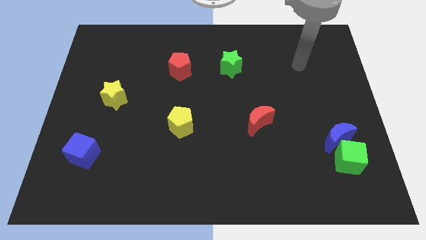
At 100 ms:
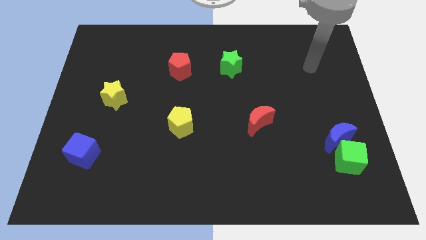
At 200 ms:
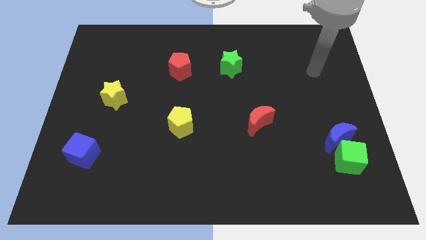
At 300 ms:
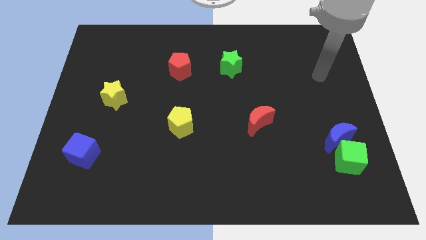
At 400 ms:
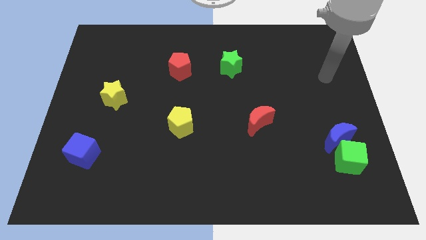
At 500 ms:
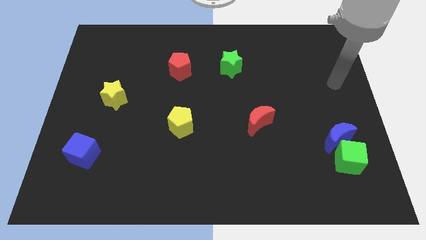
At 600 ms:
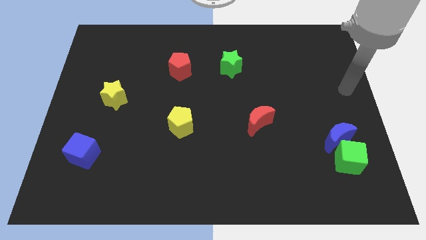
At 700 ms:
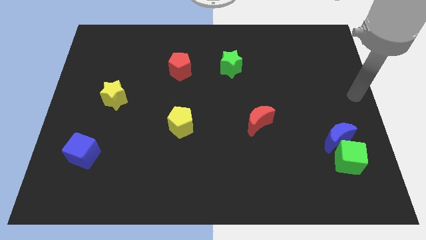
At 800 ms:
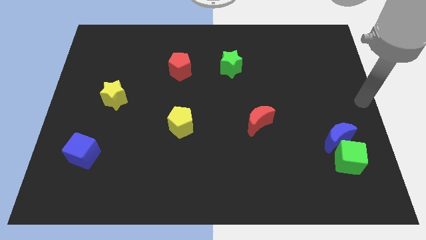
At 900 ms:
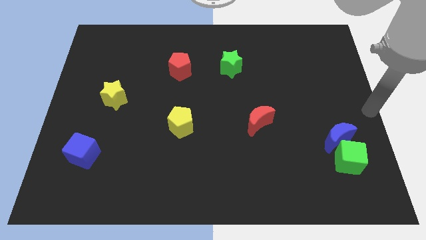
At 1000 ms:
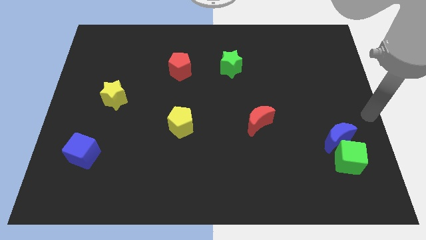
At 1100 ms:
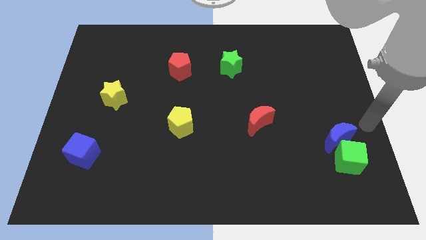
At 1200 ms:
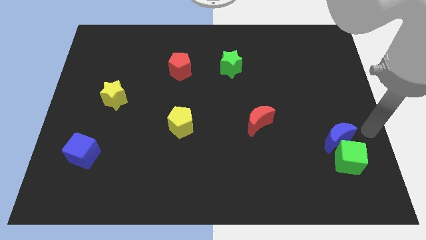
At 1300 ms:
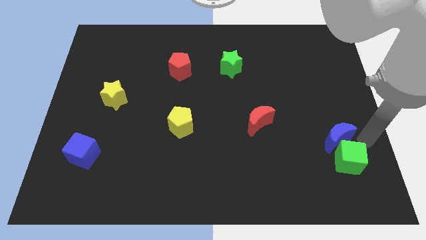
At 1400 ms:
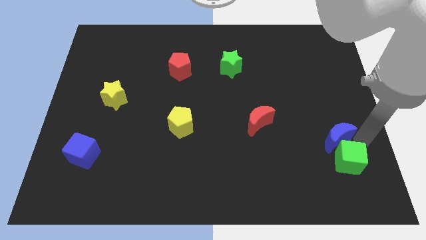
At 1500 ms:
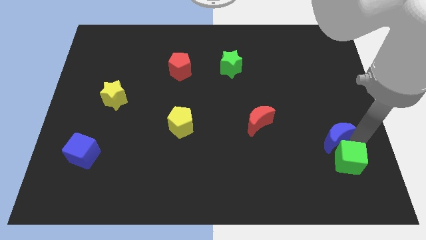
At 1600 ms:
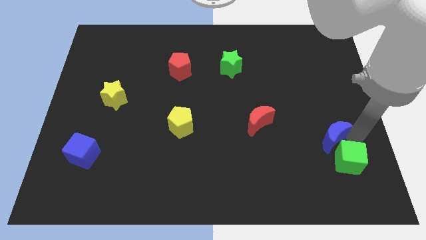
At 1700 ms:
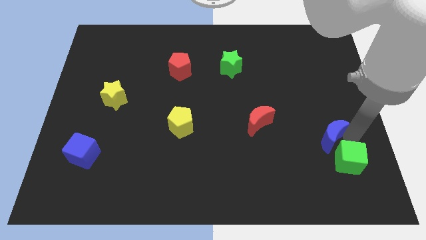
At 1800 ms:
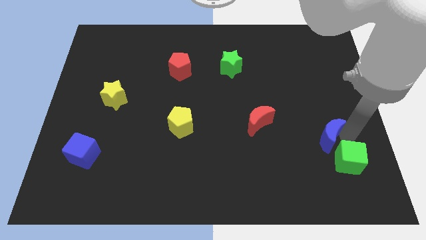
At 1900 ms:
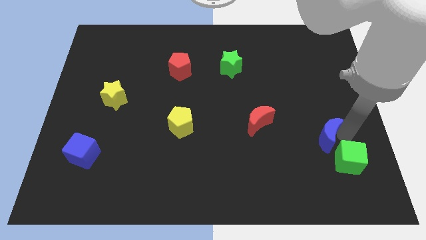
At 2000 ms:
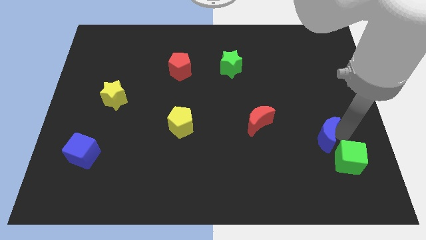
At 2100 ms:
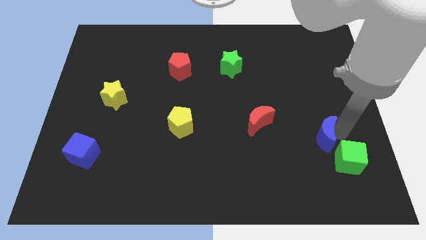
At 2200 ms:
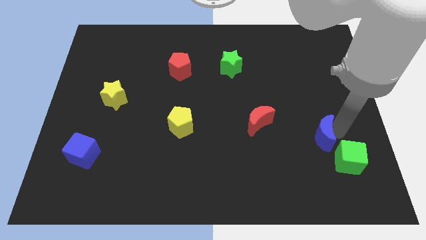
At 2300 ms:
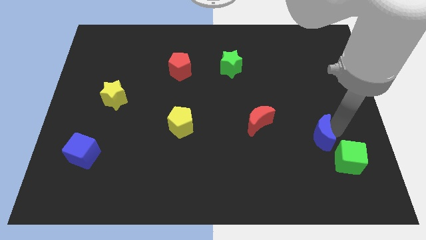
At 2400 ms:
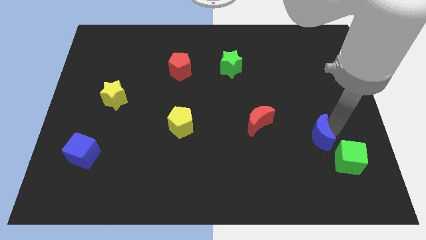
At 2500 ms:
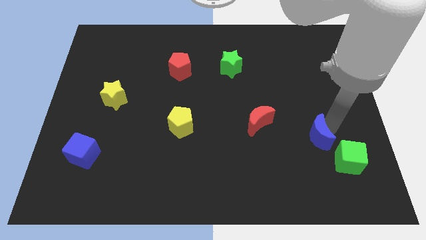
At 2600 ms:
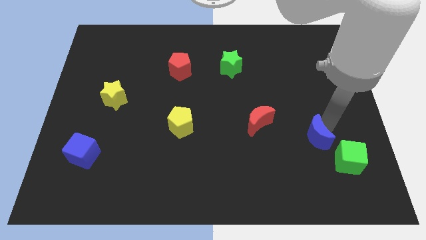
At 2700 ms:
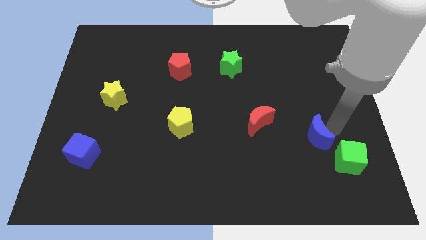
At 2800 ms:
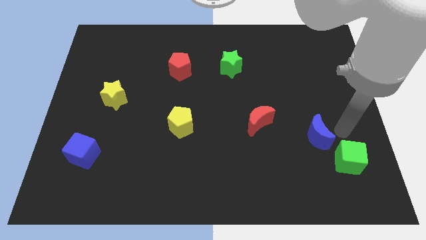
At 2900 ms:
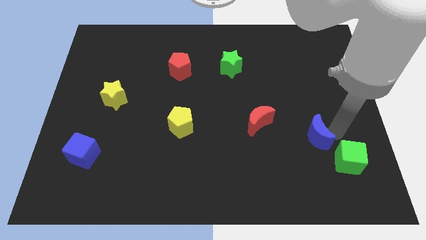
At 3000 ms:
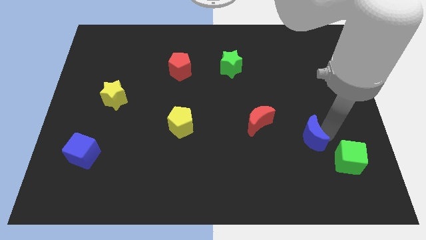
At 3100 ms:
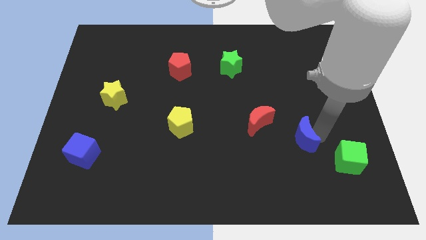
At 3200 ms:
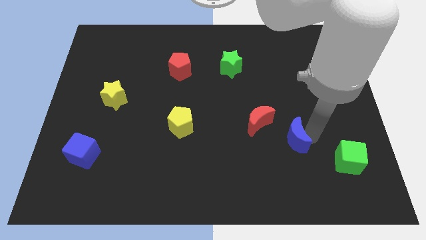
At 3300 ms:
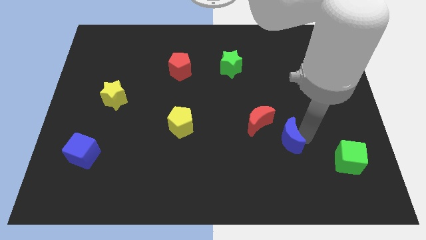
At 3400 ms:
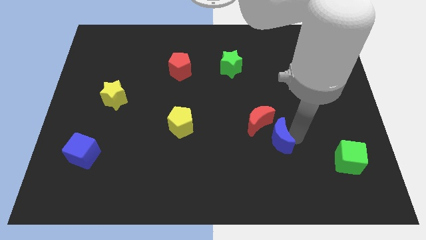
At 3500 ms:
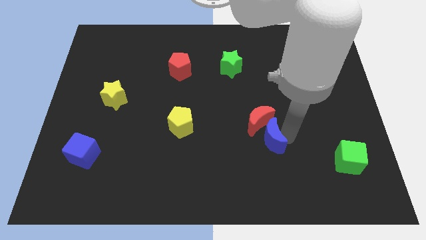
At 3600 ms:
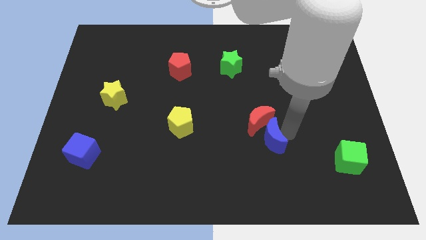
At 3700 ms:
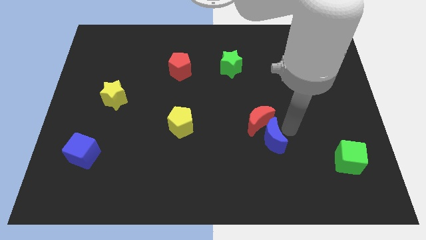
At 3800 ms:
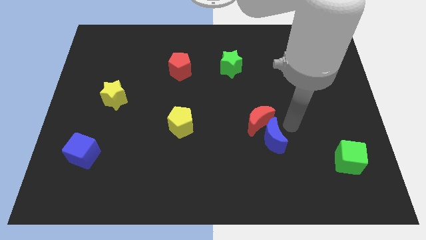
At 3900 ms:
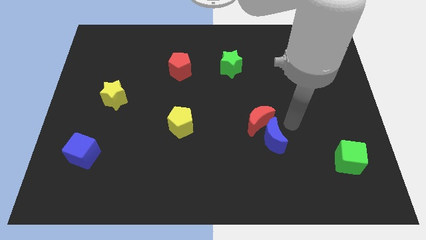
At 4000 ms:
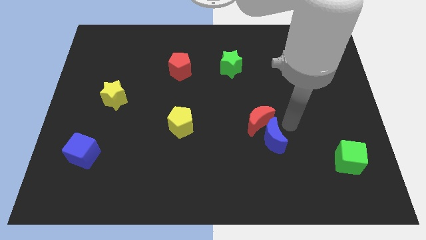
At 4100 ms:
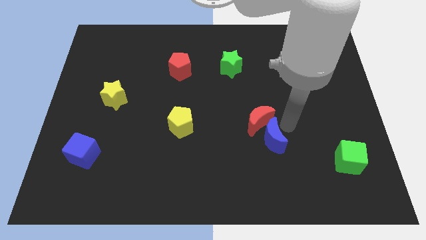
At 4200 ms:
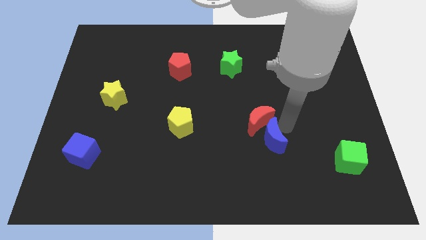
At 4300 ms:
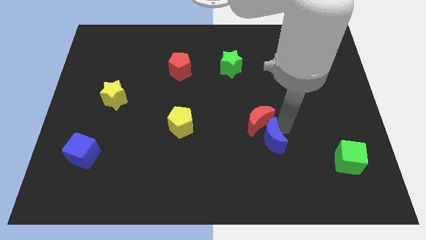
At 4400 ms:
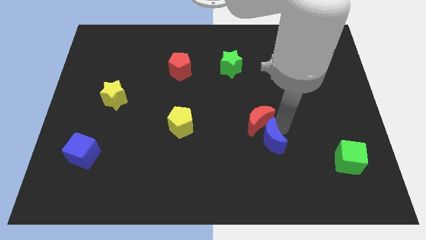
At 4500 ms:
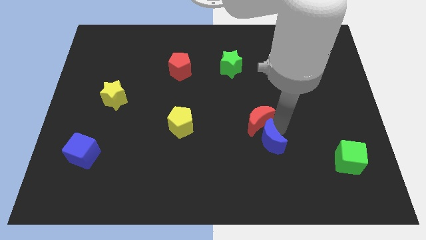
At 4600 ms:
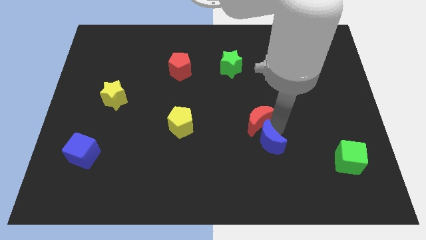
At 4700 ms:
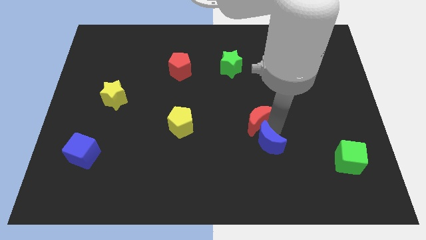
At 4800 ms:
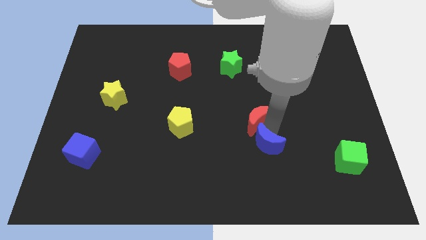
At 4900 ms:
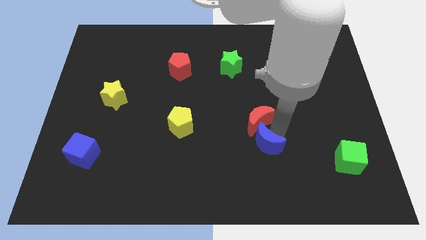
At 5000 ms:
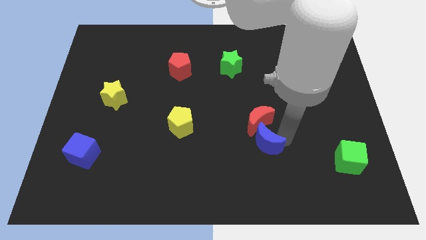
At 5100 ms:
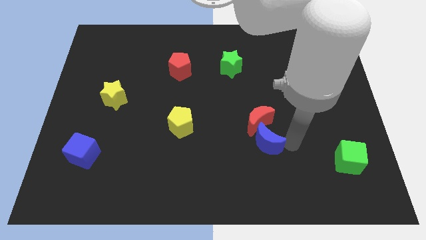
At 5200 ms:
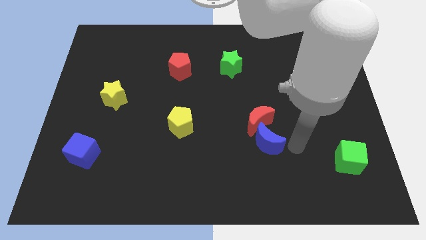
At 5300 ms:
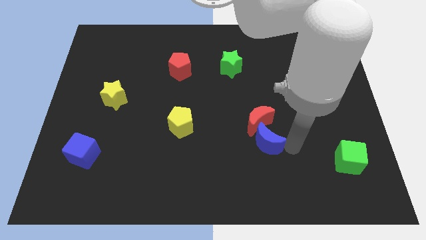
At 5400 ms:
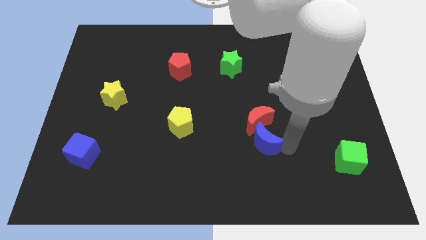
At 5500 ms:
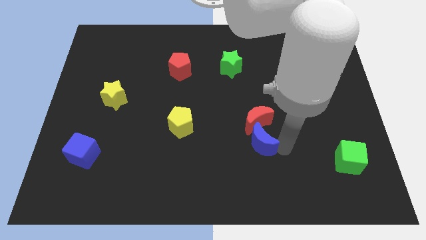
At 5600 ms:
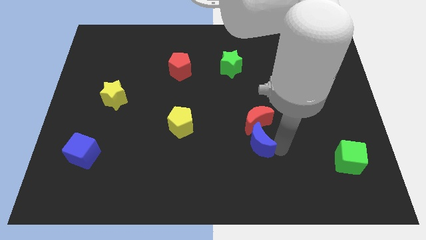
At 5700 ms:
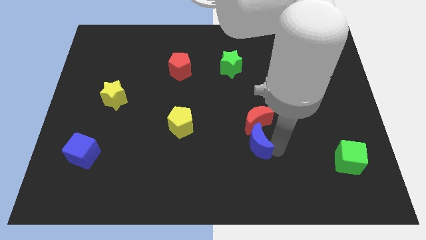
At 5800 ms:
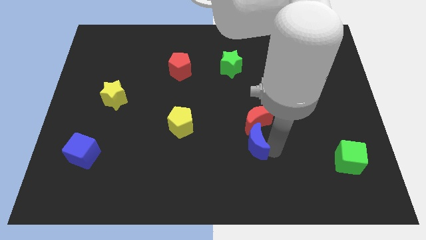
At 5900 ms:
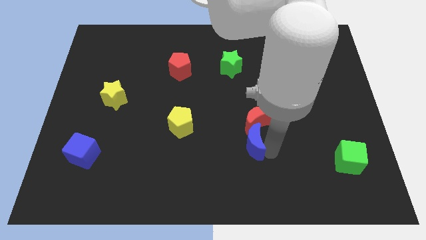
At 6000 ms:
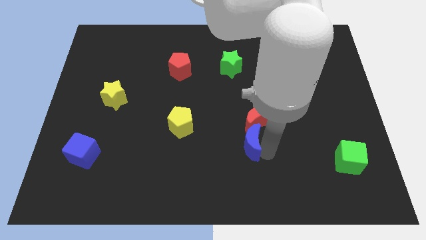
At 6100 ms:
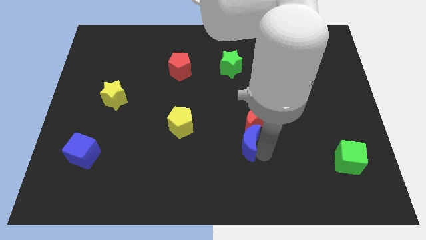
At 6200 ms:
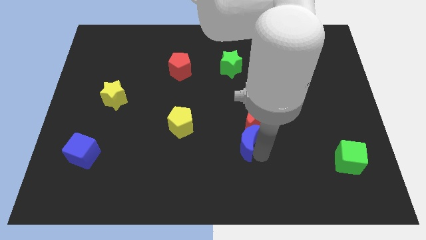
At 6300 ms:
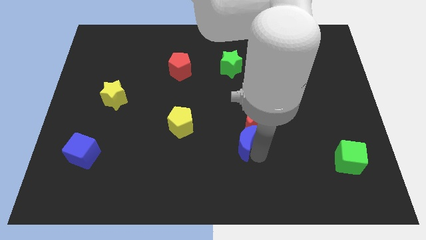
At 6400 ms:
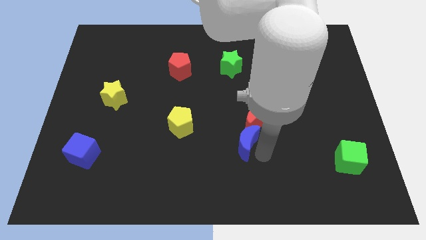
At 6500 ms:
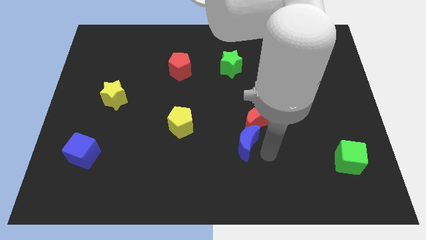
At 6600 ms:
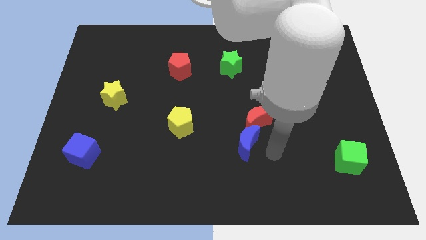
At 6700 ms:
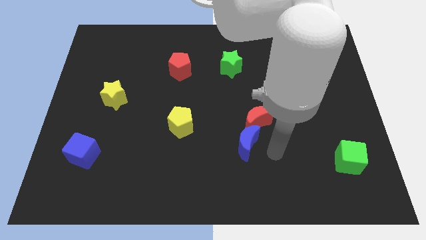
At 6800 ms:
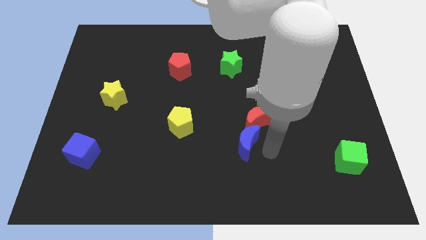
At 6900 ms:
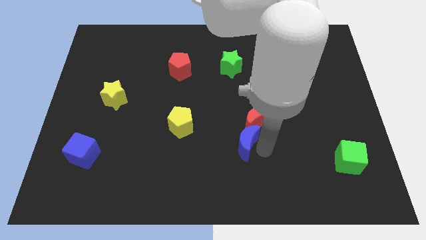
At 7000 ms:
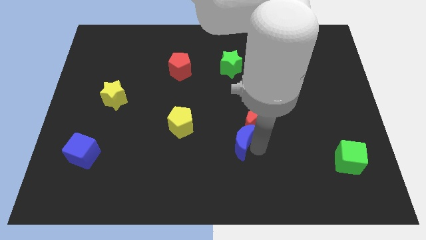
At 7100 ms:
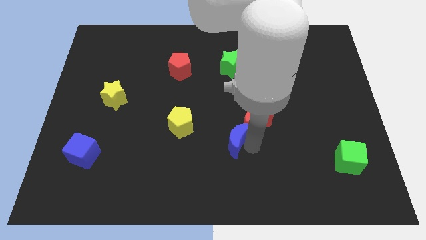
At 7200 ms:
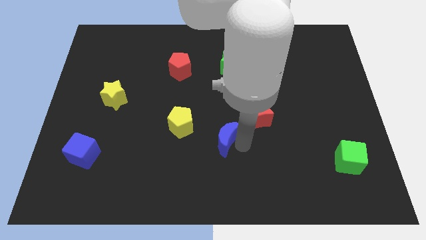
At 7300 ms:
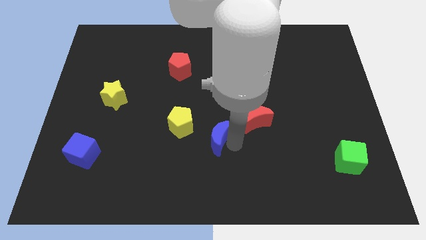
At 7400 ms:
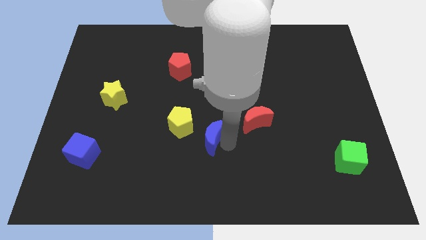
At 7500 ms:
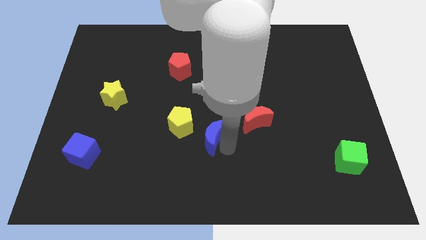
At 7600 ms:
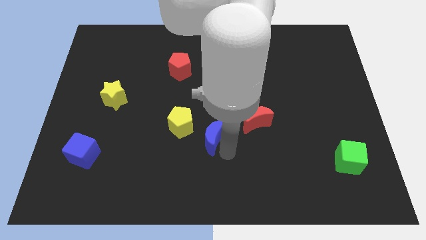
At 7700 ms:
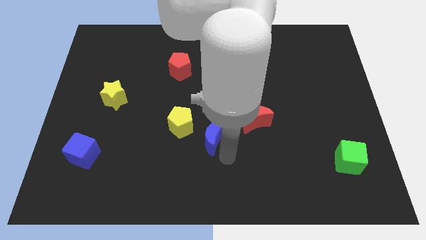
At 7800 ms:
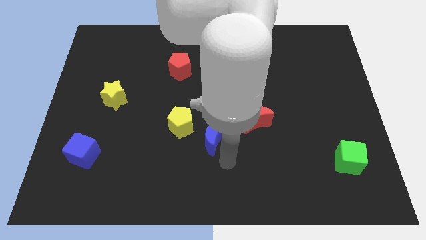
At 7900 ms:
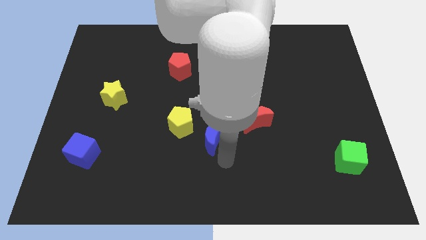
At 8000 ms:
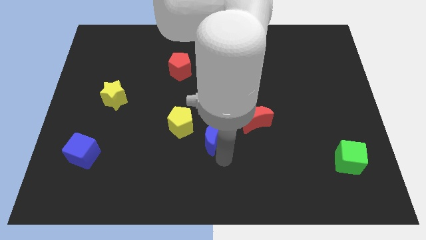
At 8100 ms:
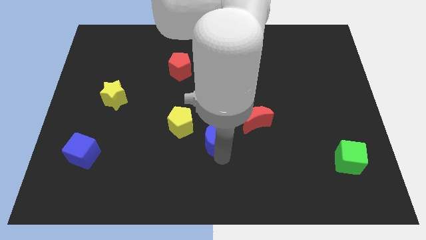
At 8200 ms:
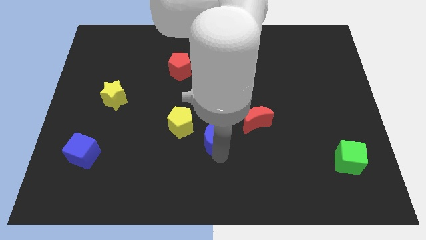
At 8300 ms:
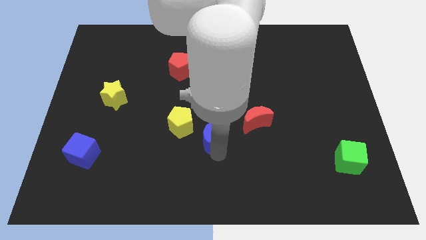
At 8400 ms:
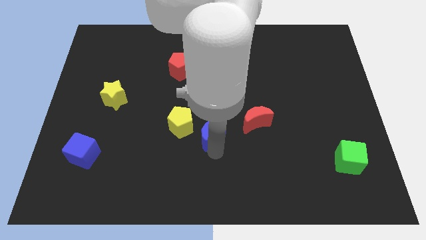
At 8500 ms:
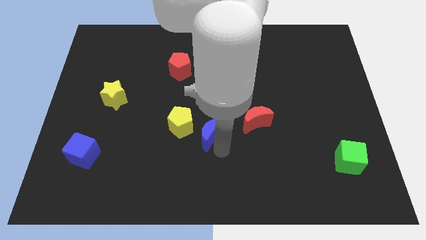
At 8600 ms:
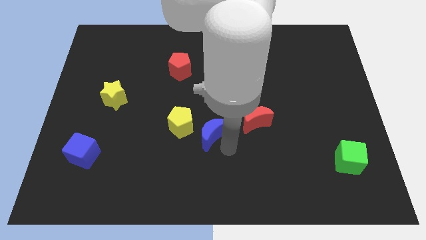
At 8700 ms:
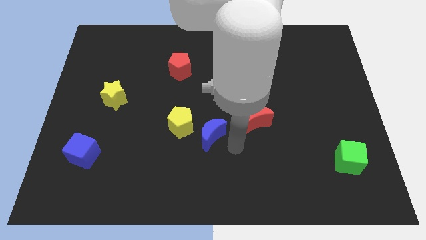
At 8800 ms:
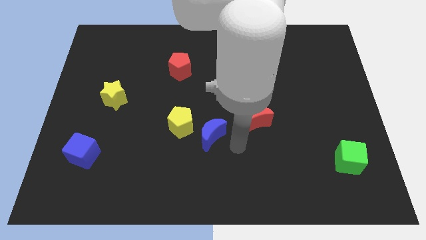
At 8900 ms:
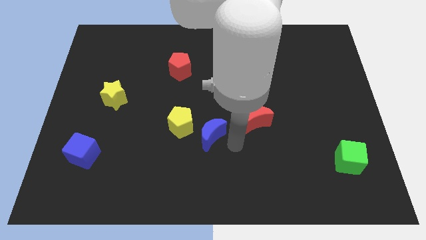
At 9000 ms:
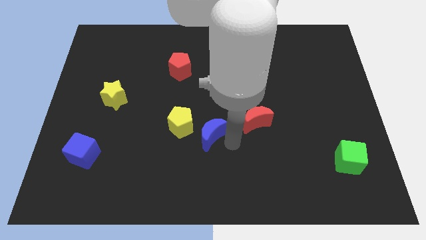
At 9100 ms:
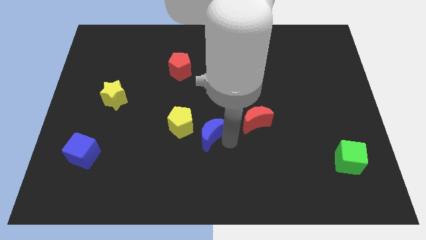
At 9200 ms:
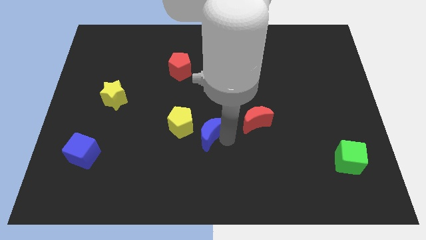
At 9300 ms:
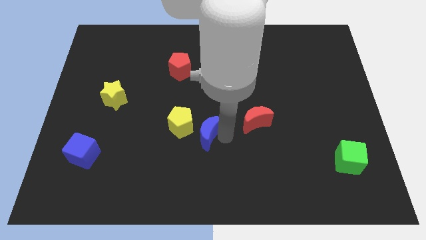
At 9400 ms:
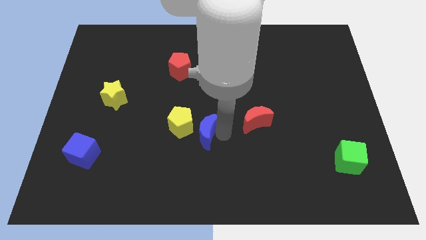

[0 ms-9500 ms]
move the blue moon next to the yellow pentagon
